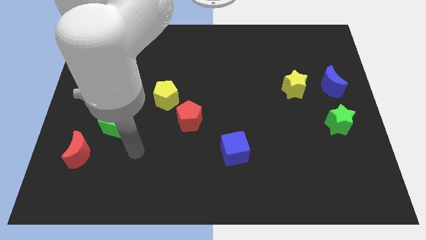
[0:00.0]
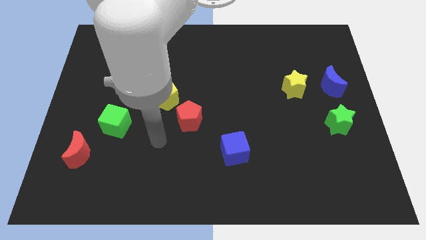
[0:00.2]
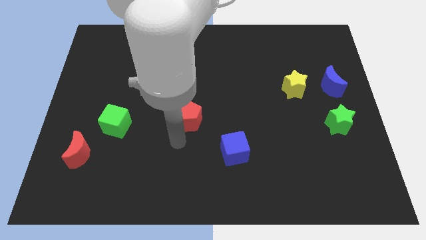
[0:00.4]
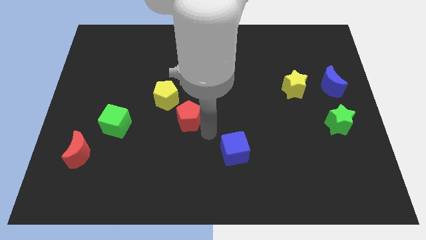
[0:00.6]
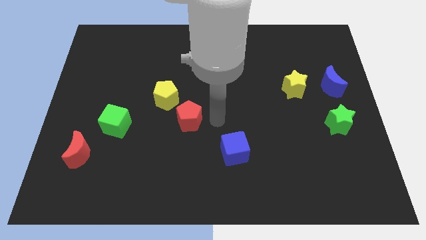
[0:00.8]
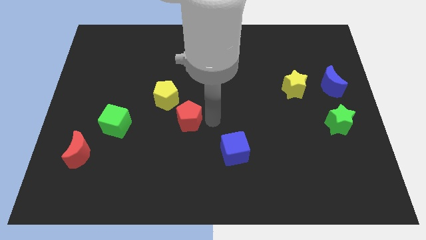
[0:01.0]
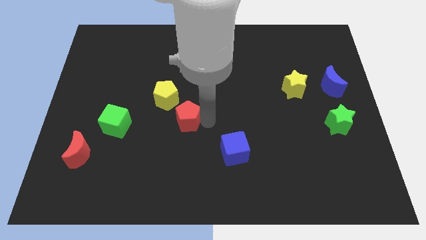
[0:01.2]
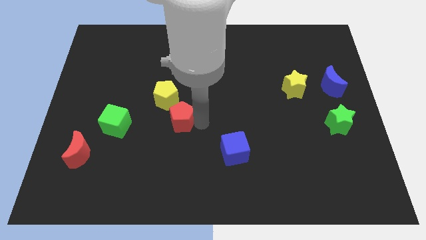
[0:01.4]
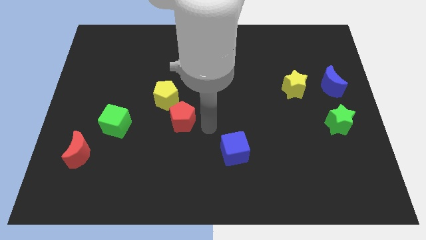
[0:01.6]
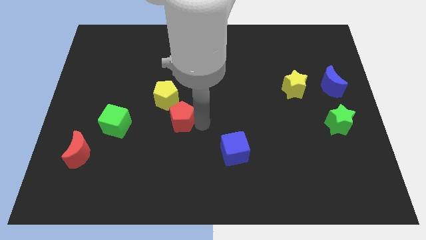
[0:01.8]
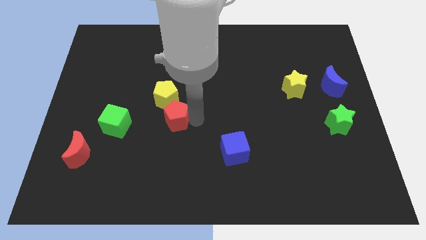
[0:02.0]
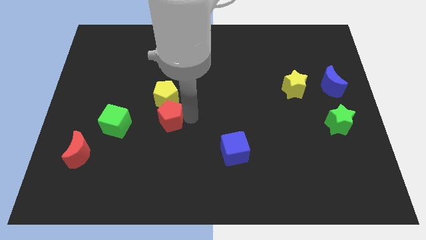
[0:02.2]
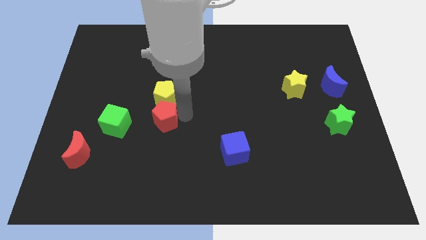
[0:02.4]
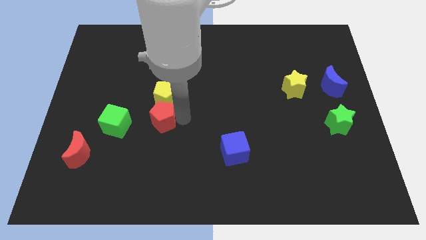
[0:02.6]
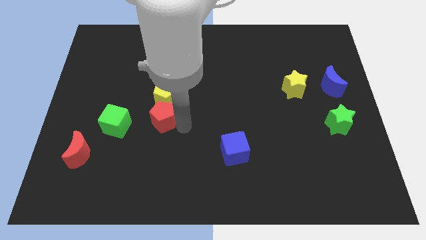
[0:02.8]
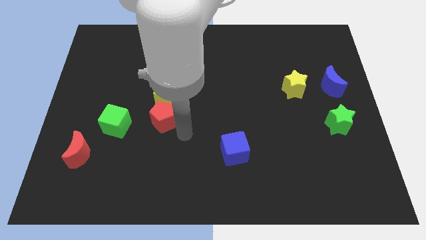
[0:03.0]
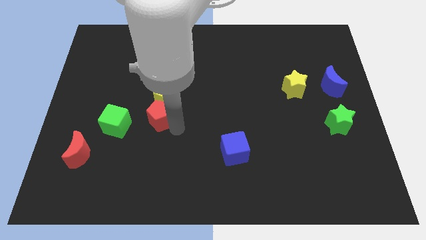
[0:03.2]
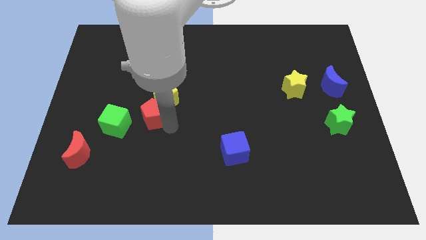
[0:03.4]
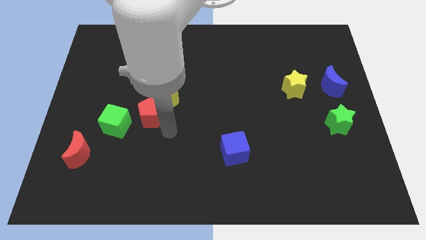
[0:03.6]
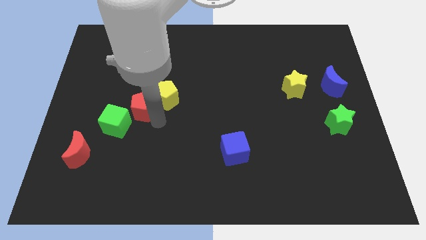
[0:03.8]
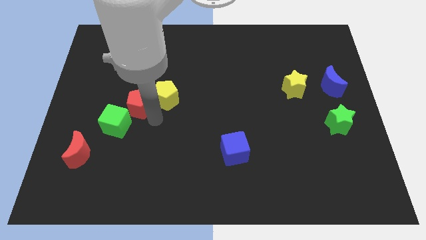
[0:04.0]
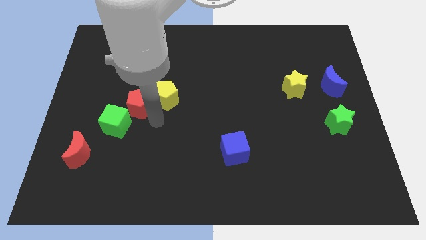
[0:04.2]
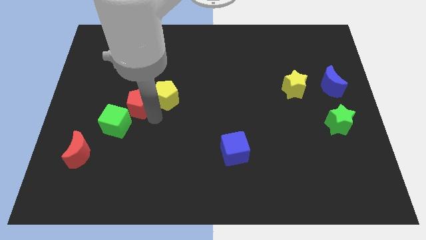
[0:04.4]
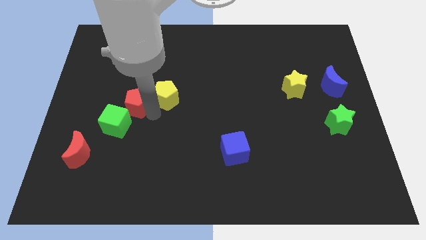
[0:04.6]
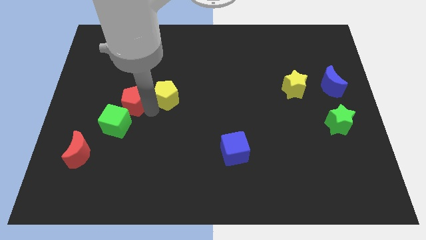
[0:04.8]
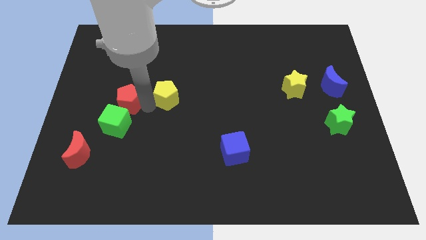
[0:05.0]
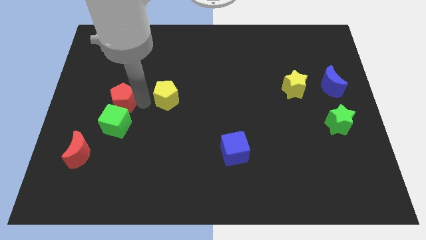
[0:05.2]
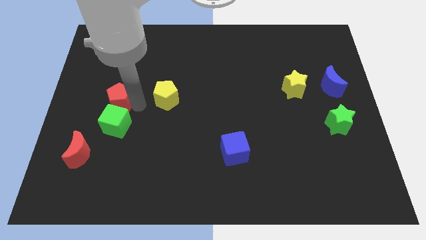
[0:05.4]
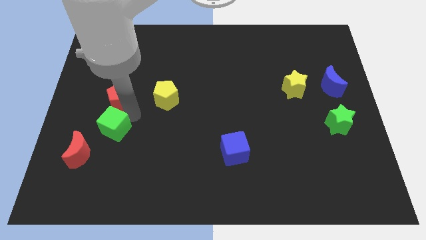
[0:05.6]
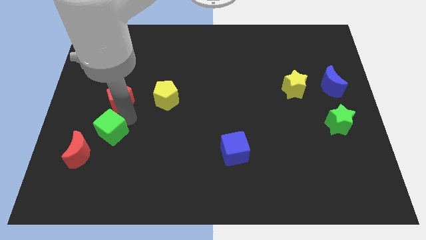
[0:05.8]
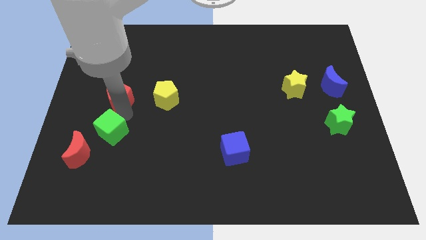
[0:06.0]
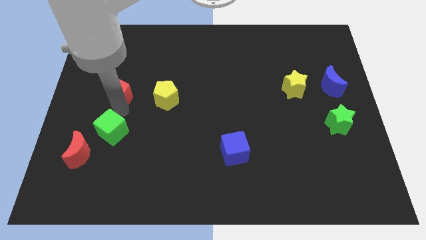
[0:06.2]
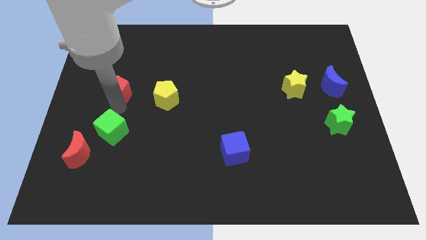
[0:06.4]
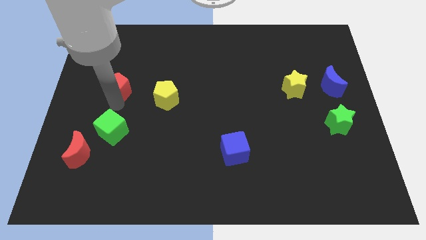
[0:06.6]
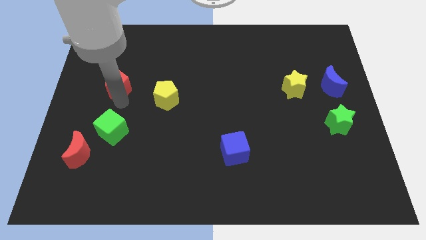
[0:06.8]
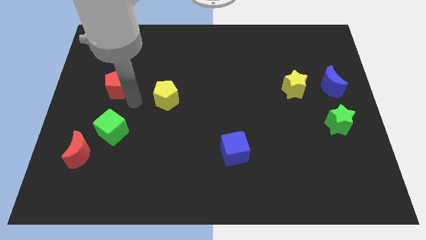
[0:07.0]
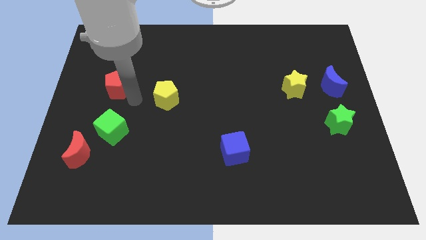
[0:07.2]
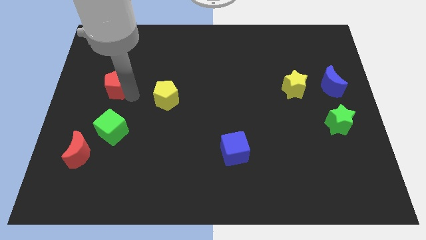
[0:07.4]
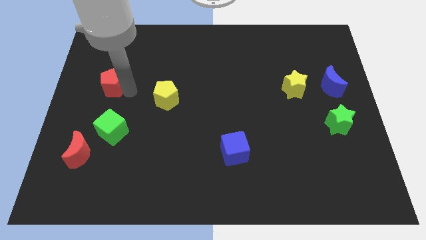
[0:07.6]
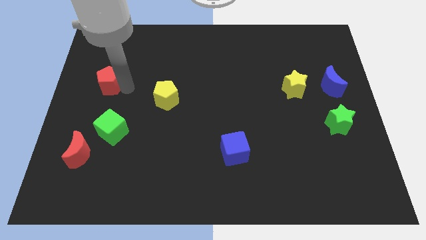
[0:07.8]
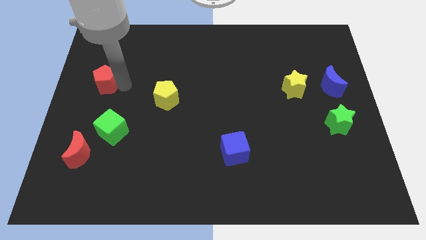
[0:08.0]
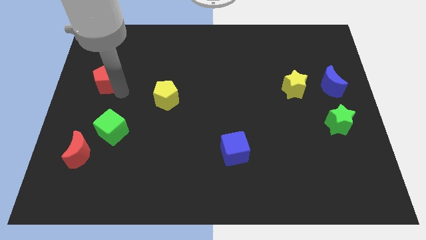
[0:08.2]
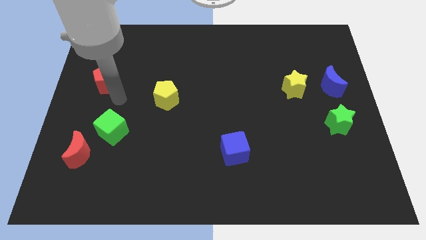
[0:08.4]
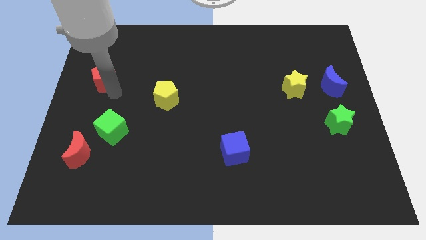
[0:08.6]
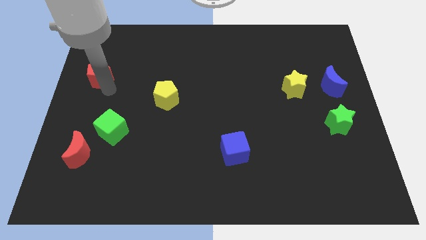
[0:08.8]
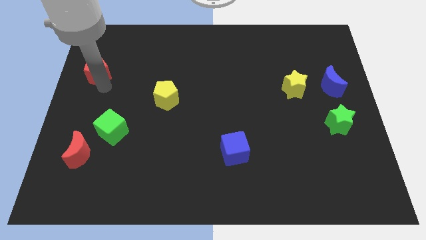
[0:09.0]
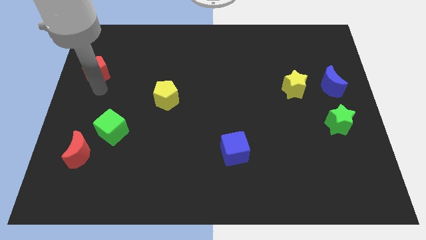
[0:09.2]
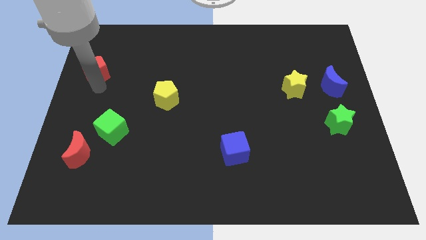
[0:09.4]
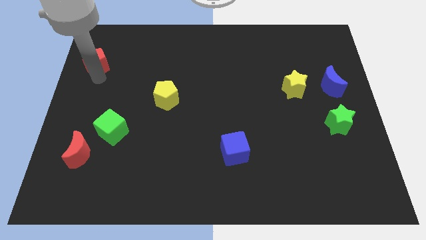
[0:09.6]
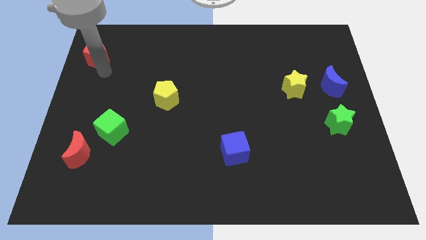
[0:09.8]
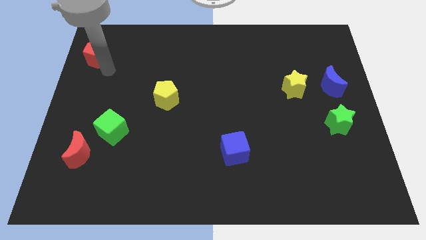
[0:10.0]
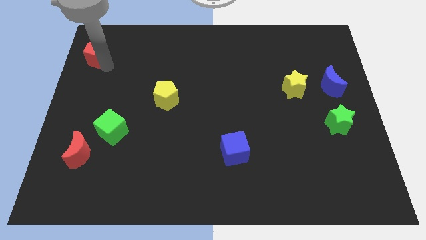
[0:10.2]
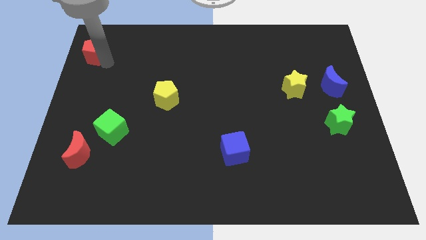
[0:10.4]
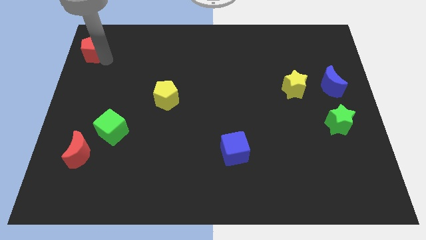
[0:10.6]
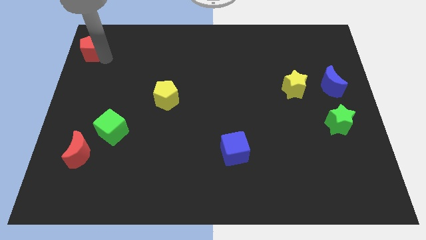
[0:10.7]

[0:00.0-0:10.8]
slide the red pentagon to the top left

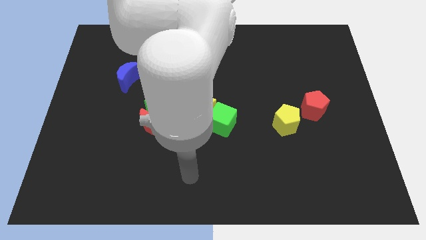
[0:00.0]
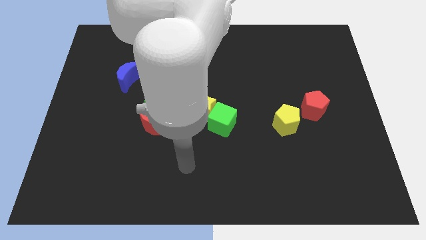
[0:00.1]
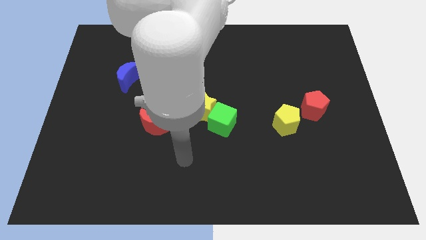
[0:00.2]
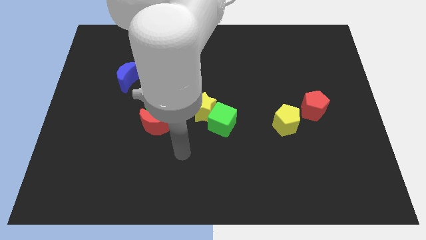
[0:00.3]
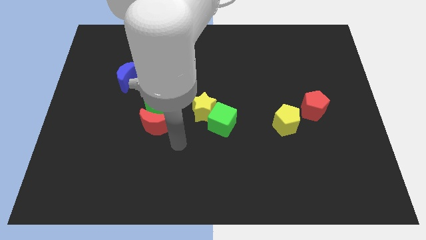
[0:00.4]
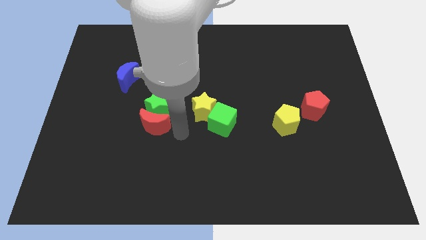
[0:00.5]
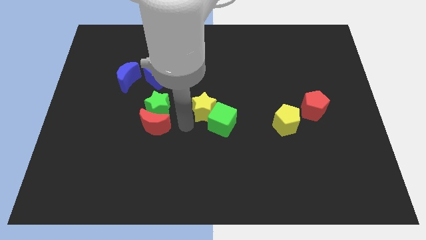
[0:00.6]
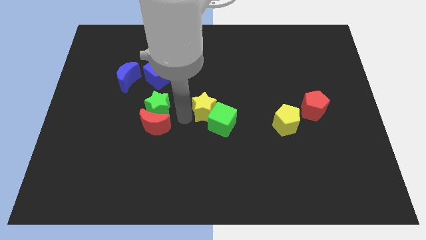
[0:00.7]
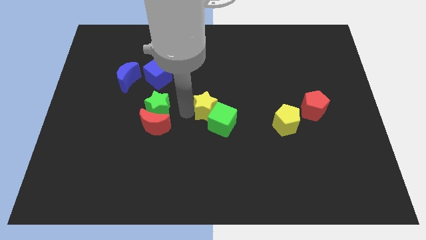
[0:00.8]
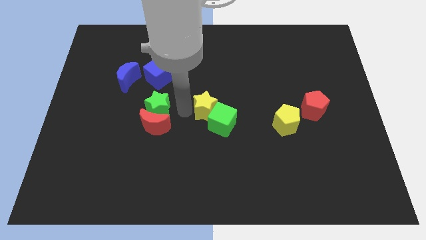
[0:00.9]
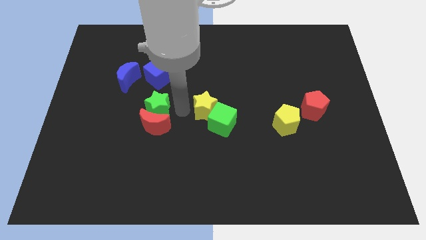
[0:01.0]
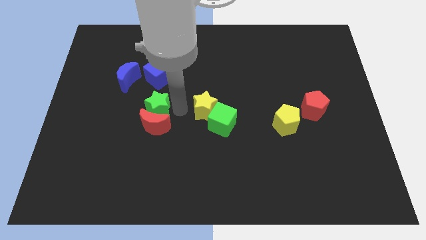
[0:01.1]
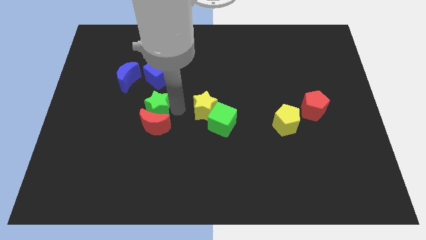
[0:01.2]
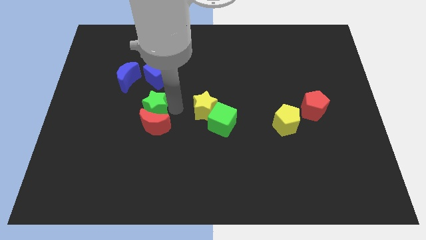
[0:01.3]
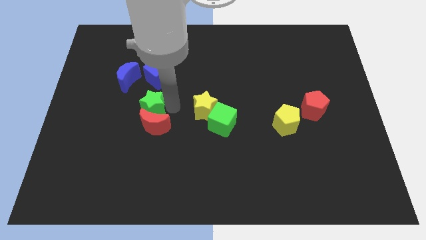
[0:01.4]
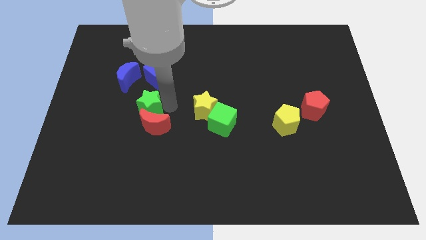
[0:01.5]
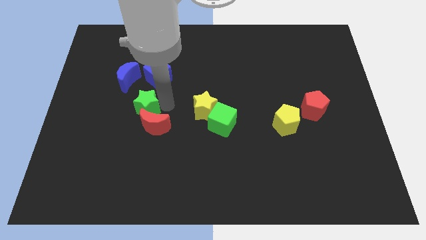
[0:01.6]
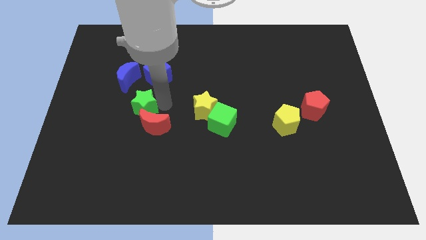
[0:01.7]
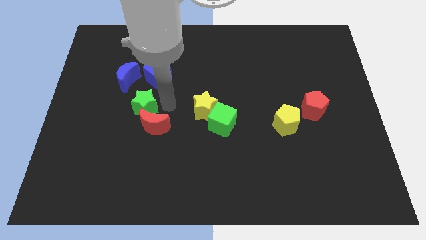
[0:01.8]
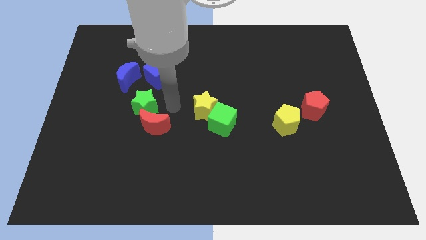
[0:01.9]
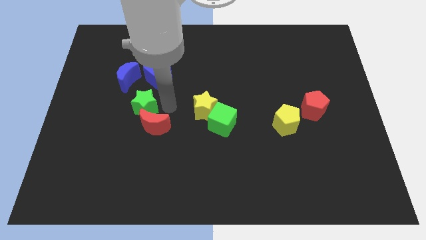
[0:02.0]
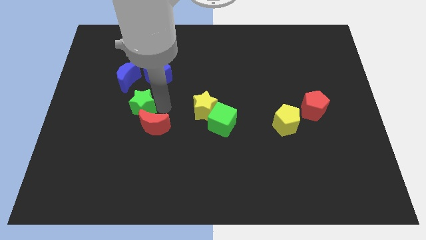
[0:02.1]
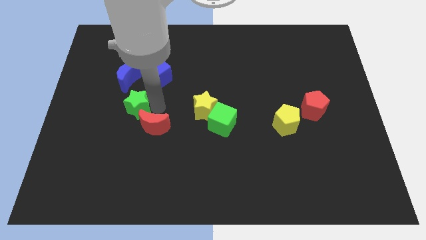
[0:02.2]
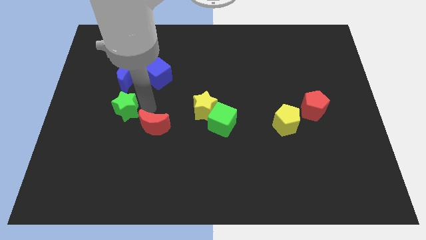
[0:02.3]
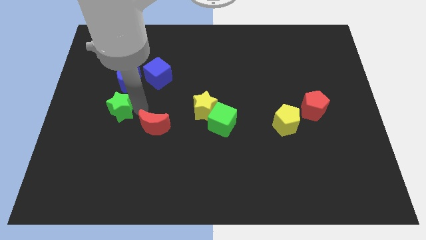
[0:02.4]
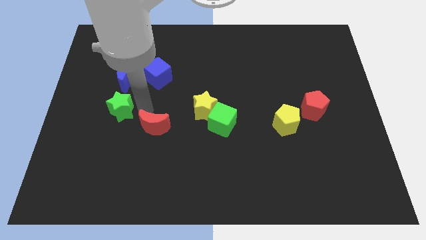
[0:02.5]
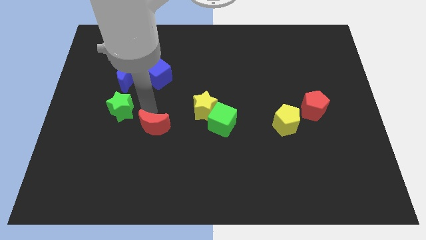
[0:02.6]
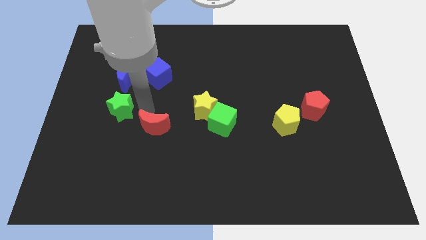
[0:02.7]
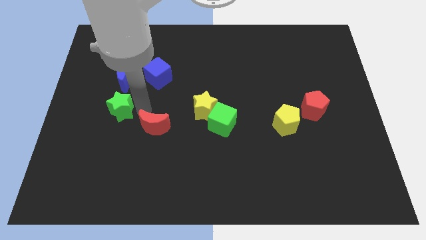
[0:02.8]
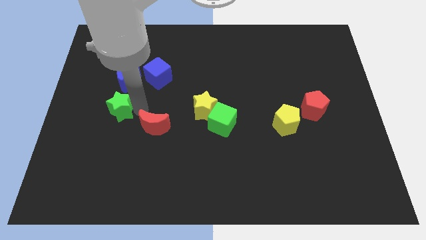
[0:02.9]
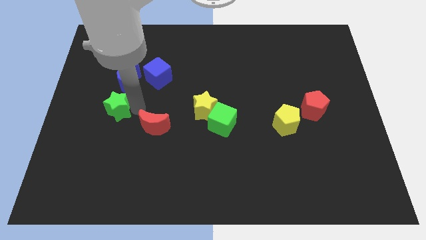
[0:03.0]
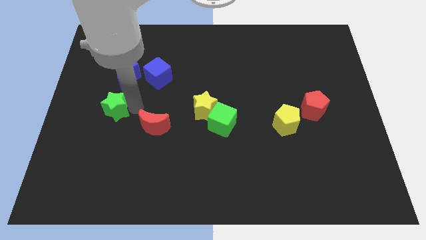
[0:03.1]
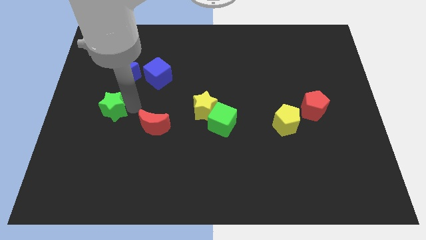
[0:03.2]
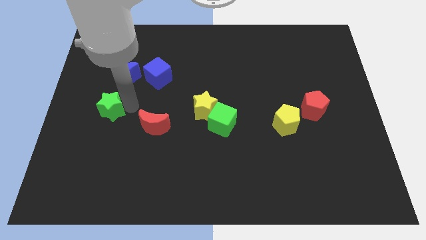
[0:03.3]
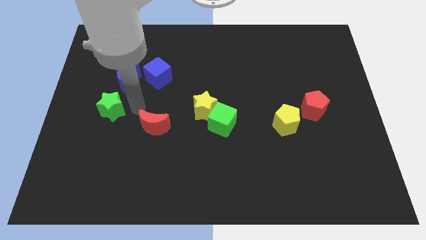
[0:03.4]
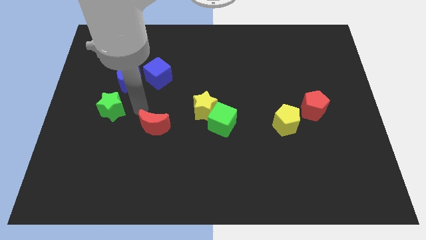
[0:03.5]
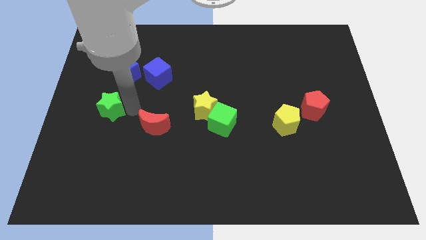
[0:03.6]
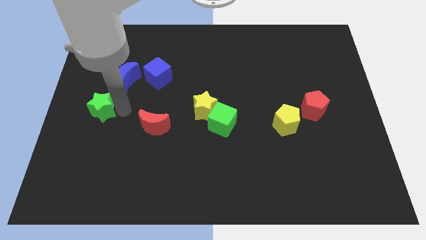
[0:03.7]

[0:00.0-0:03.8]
slide the green star to the left side of the board
